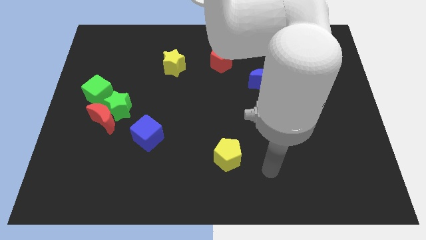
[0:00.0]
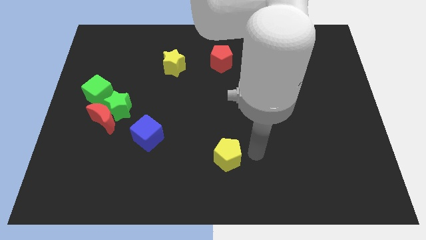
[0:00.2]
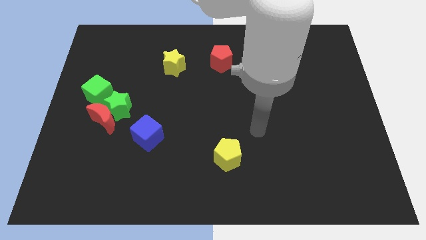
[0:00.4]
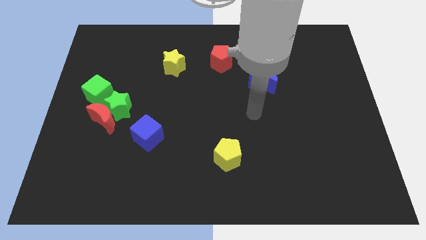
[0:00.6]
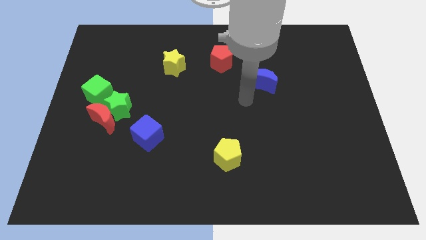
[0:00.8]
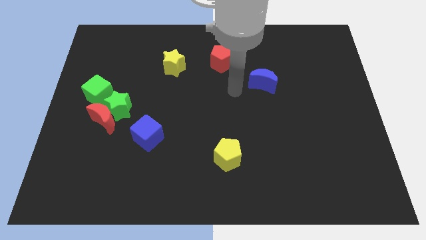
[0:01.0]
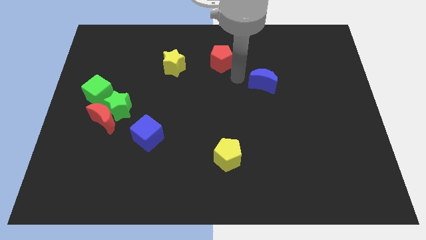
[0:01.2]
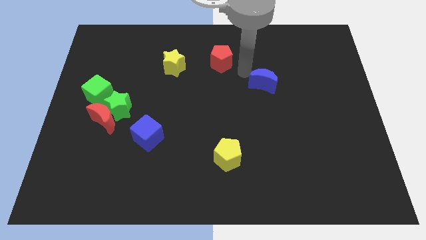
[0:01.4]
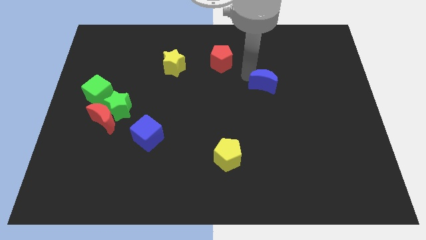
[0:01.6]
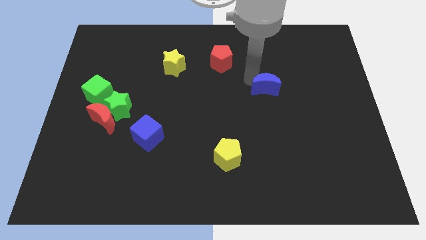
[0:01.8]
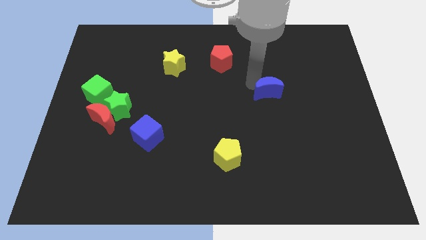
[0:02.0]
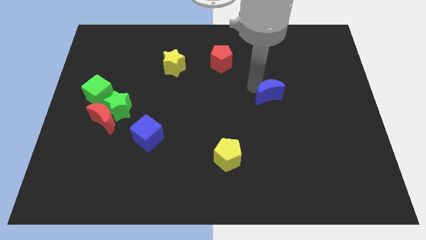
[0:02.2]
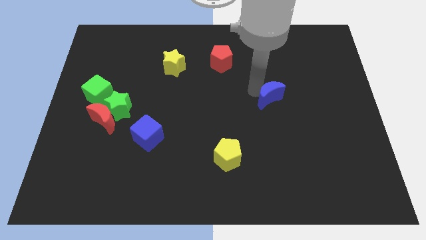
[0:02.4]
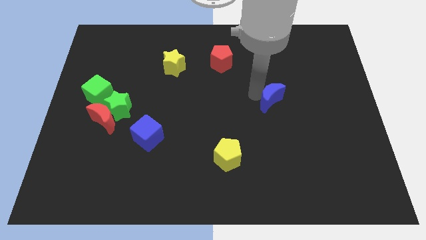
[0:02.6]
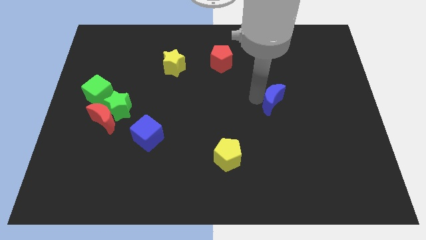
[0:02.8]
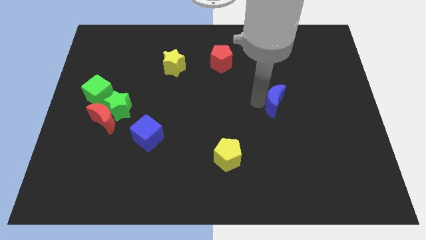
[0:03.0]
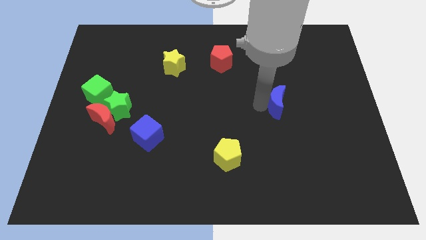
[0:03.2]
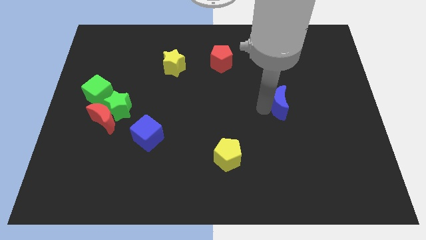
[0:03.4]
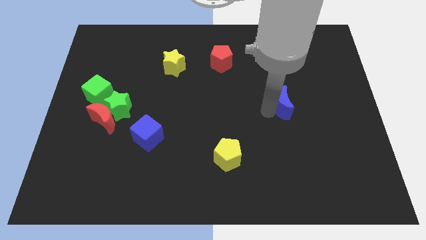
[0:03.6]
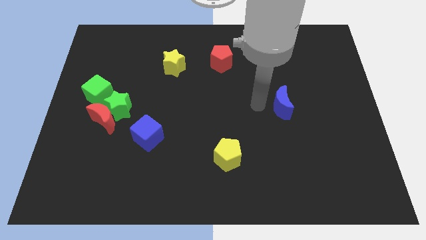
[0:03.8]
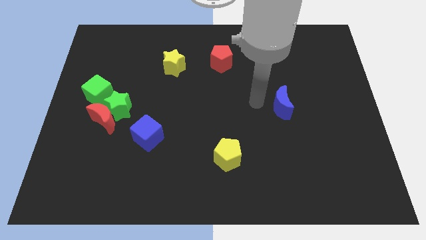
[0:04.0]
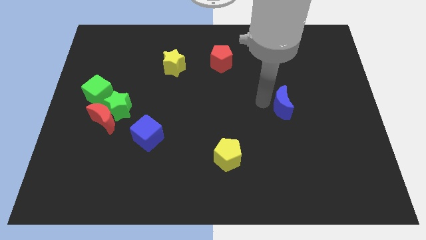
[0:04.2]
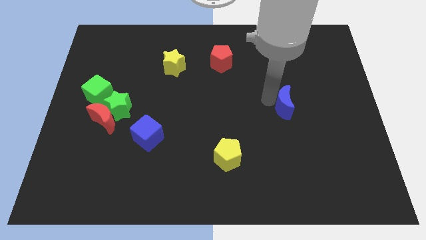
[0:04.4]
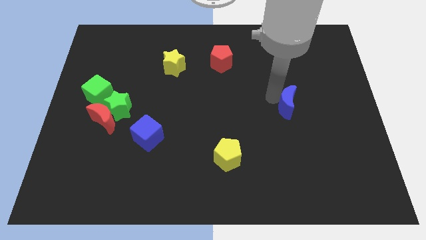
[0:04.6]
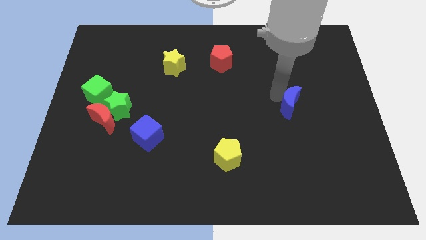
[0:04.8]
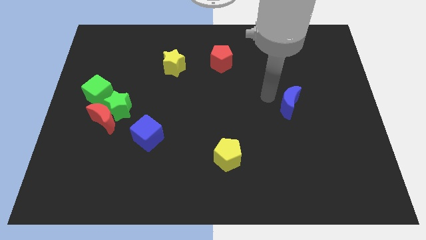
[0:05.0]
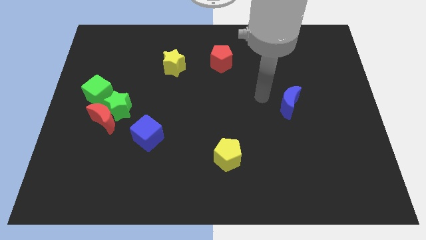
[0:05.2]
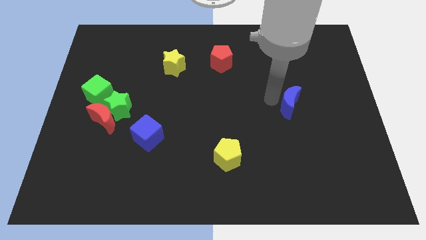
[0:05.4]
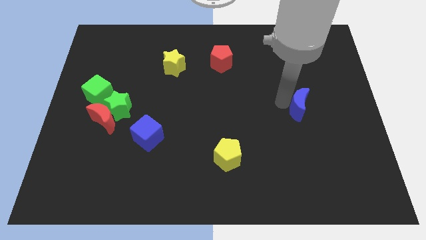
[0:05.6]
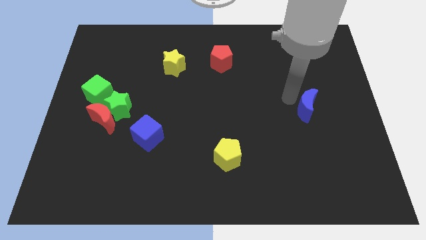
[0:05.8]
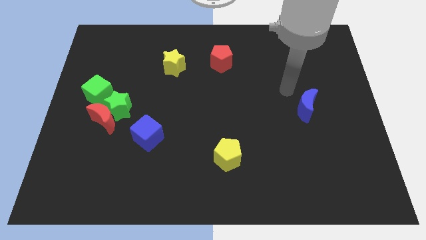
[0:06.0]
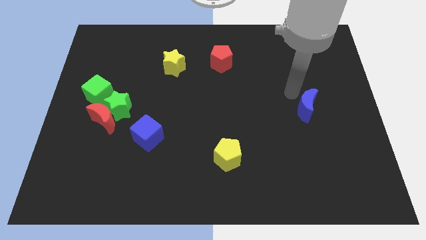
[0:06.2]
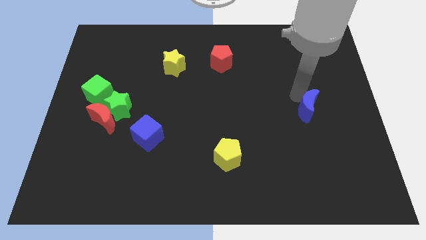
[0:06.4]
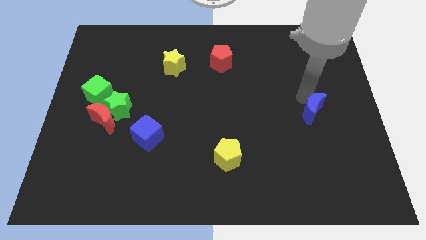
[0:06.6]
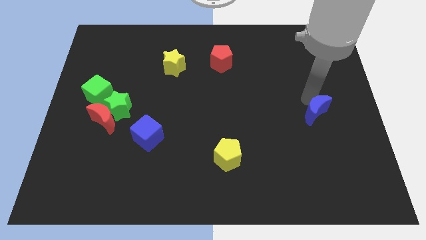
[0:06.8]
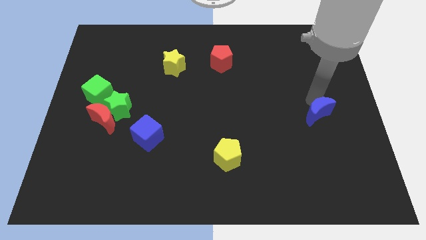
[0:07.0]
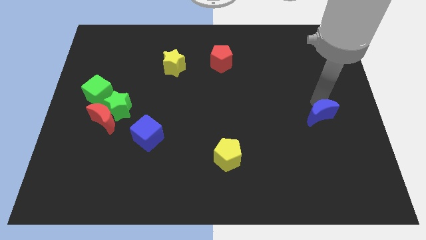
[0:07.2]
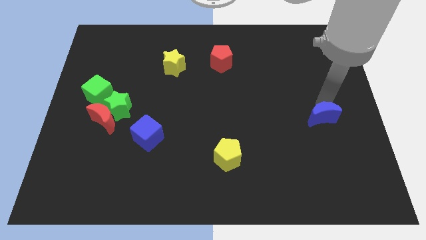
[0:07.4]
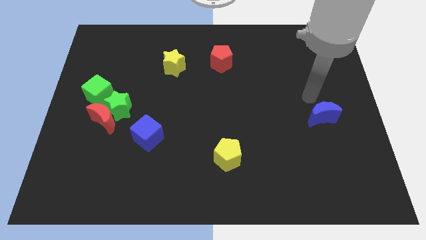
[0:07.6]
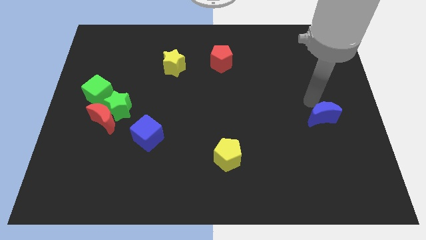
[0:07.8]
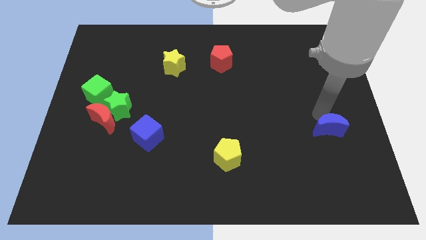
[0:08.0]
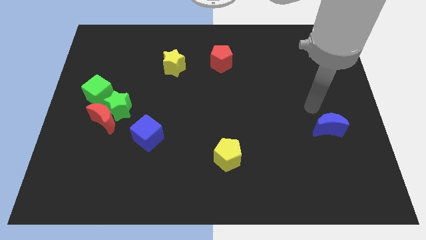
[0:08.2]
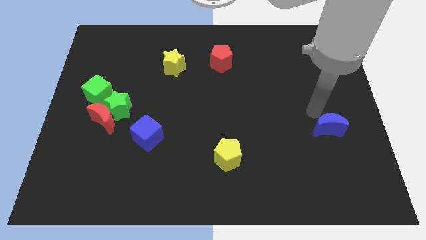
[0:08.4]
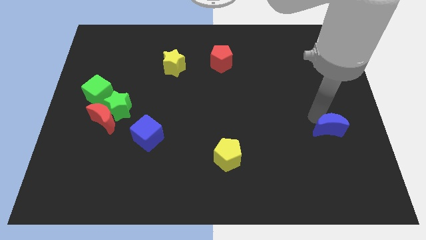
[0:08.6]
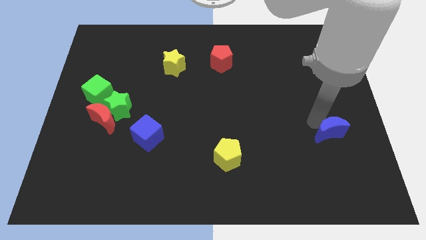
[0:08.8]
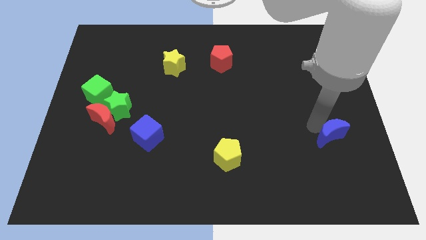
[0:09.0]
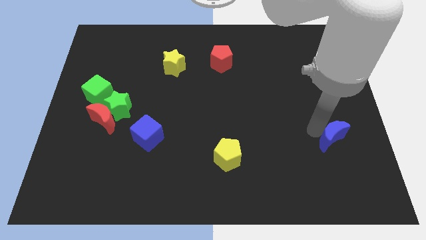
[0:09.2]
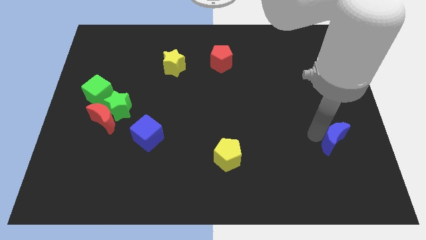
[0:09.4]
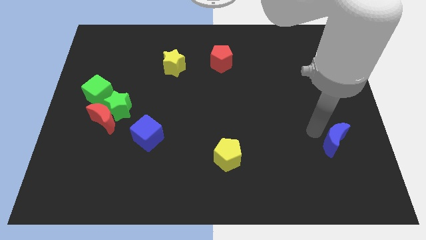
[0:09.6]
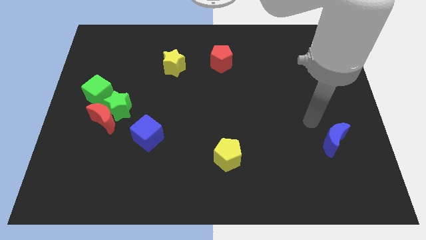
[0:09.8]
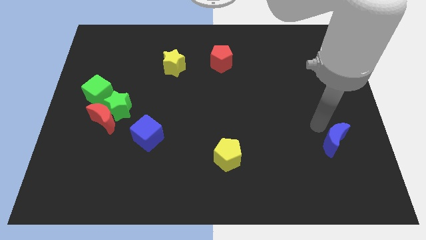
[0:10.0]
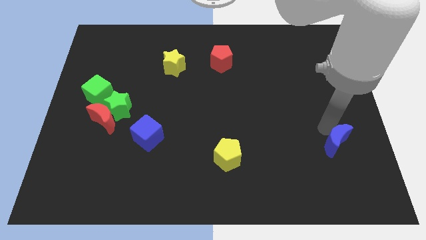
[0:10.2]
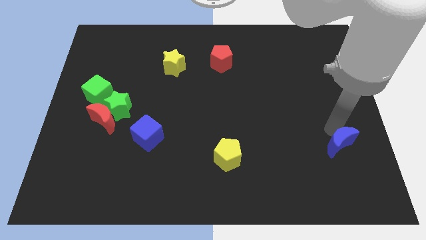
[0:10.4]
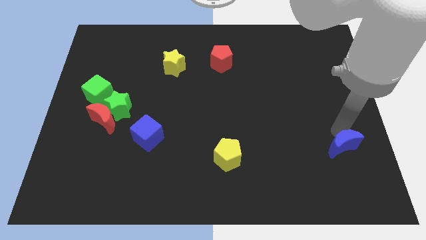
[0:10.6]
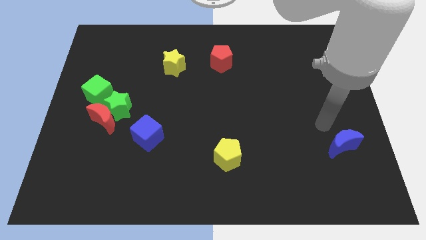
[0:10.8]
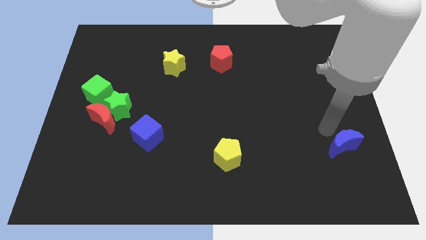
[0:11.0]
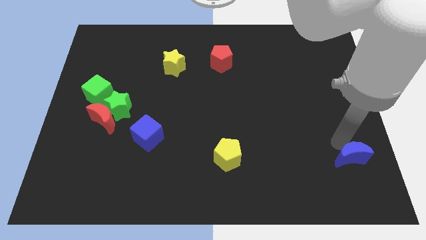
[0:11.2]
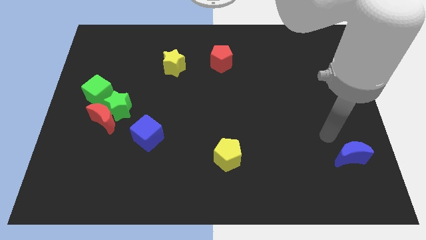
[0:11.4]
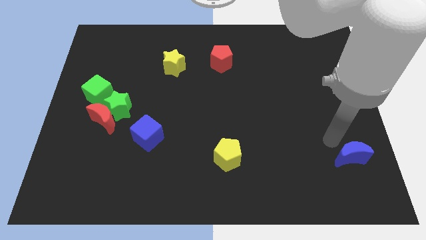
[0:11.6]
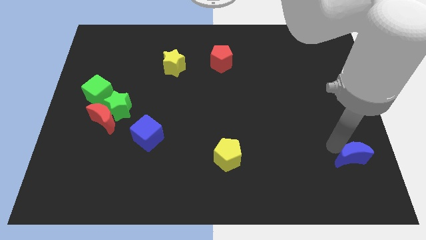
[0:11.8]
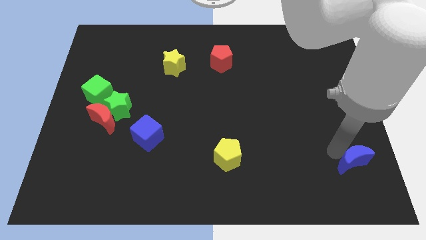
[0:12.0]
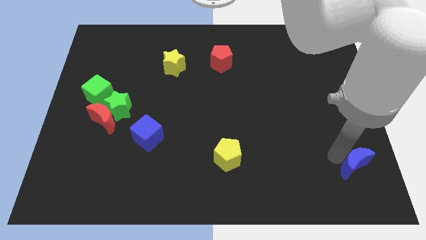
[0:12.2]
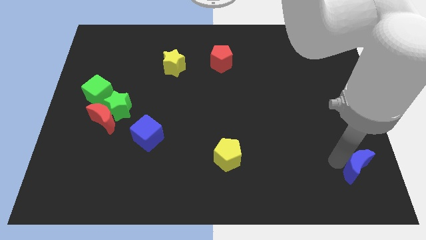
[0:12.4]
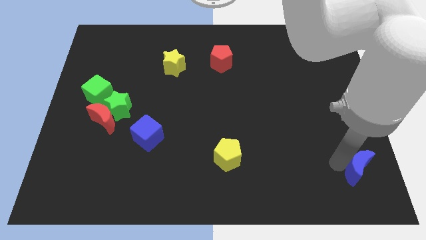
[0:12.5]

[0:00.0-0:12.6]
put the blue moon to the bottom right corner

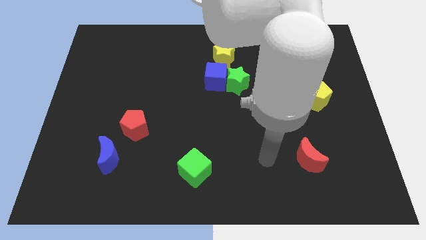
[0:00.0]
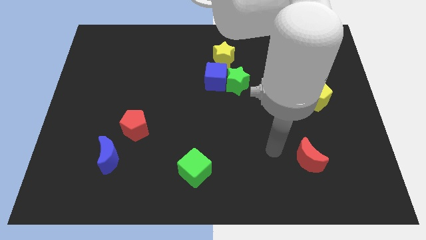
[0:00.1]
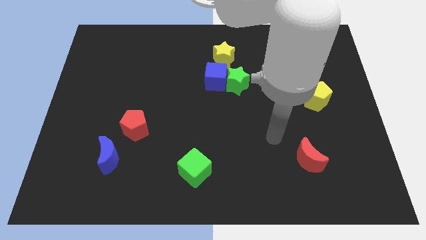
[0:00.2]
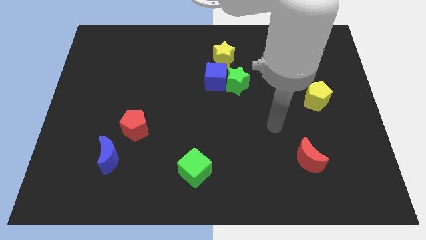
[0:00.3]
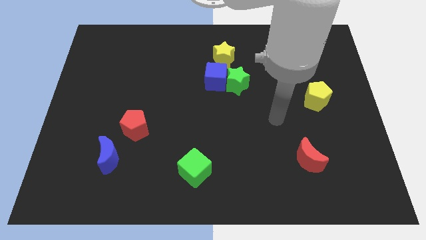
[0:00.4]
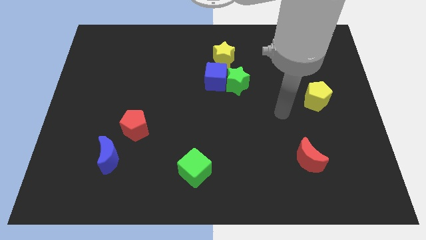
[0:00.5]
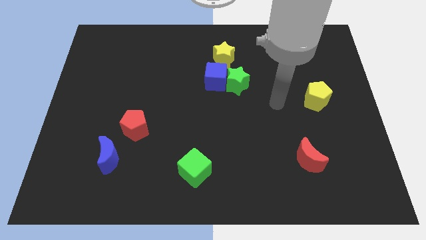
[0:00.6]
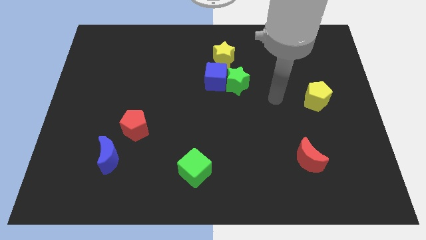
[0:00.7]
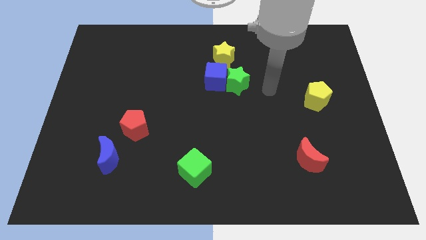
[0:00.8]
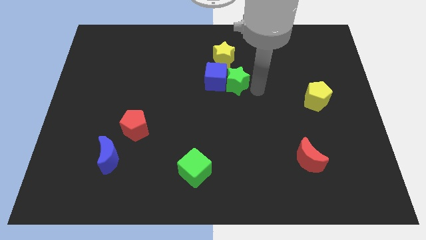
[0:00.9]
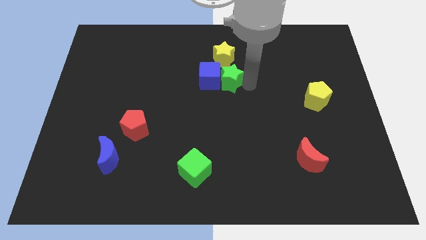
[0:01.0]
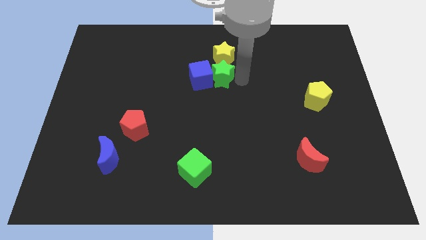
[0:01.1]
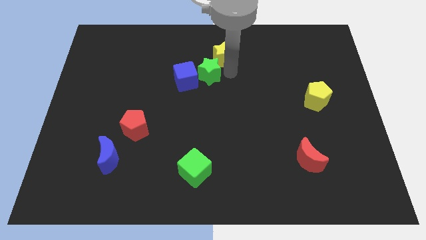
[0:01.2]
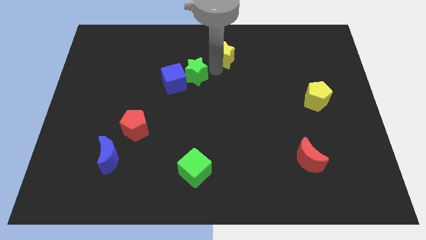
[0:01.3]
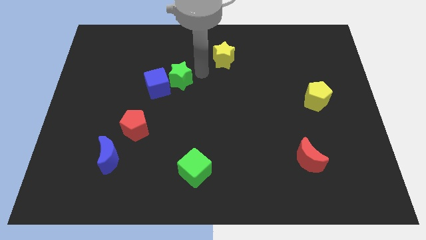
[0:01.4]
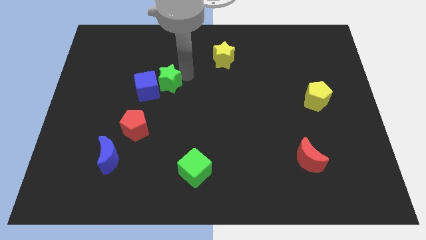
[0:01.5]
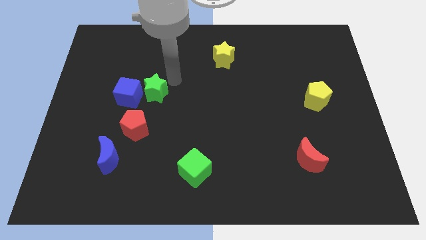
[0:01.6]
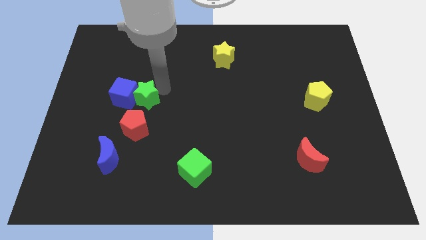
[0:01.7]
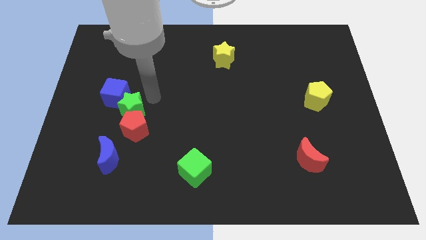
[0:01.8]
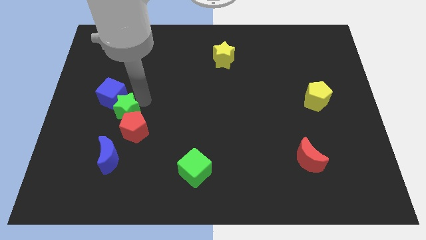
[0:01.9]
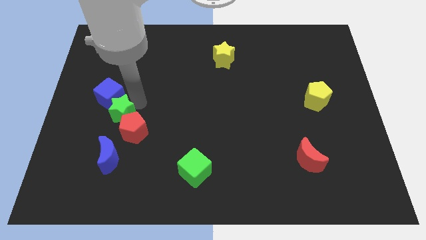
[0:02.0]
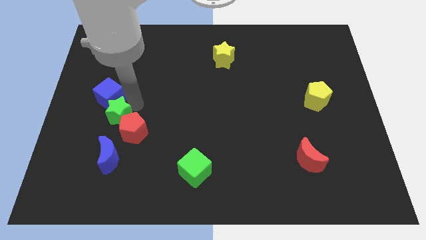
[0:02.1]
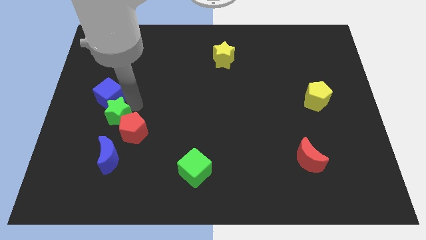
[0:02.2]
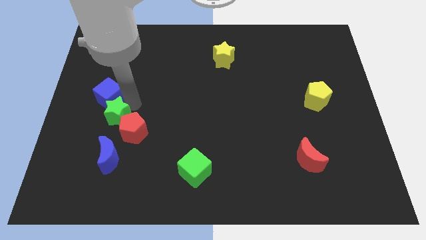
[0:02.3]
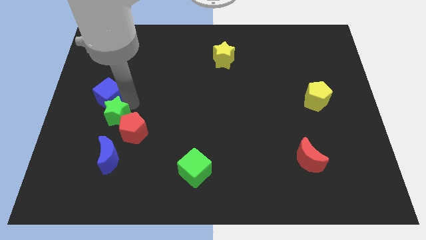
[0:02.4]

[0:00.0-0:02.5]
push the blue cube to the center left
